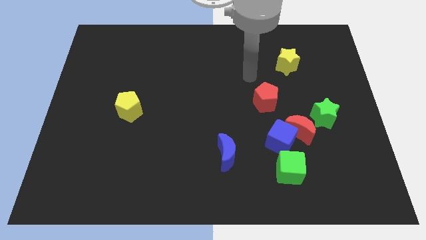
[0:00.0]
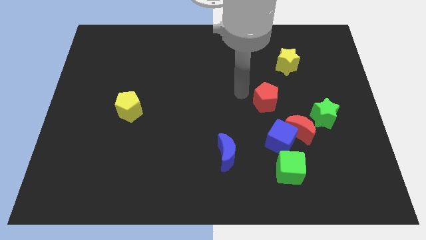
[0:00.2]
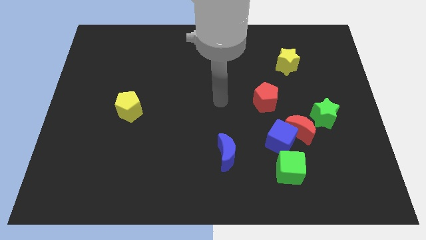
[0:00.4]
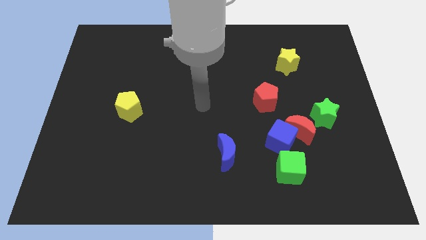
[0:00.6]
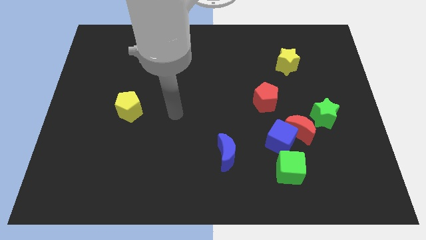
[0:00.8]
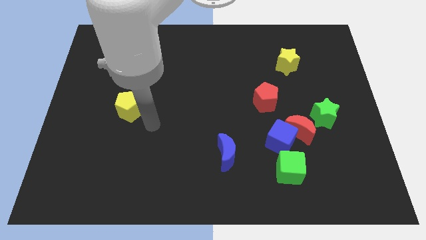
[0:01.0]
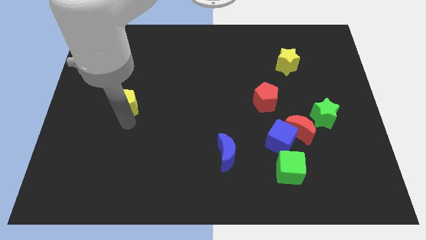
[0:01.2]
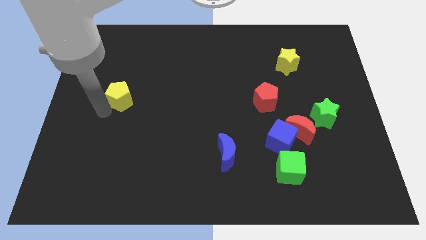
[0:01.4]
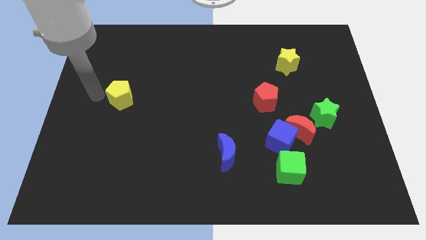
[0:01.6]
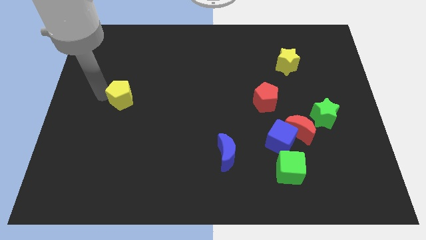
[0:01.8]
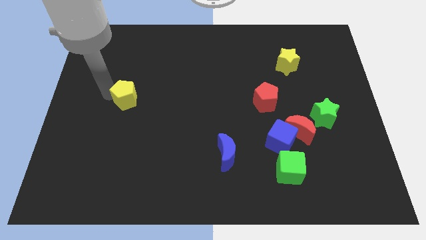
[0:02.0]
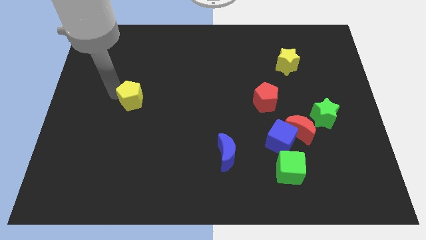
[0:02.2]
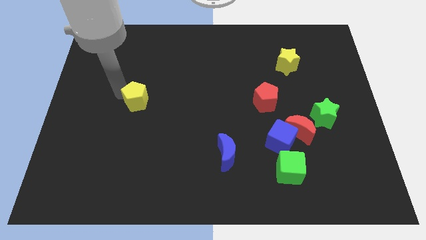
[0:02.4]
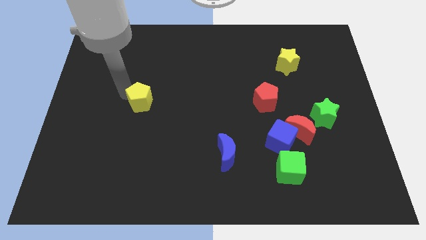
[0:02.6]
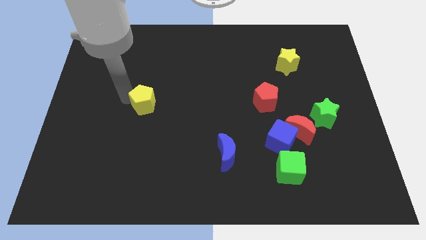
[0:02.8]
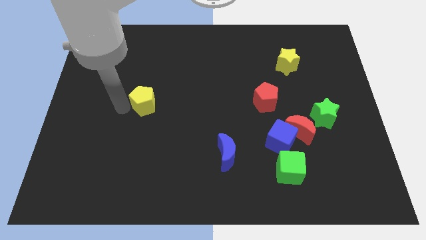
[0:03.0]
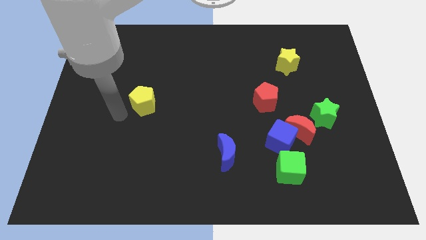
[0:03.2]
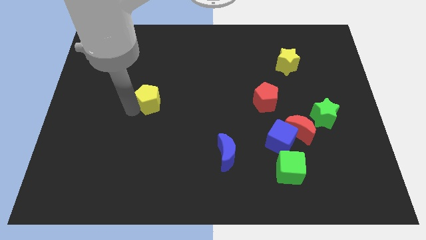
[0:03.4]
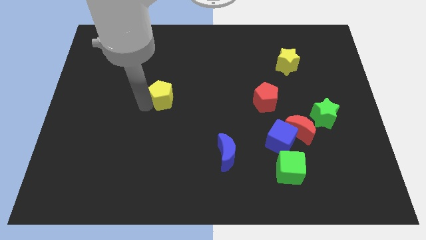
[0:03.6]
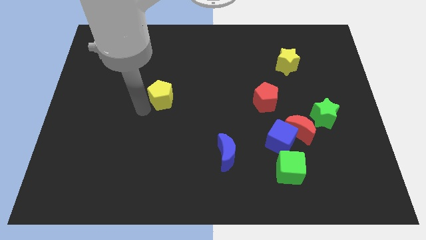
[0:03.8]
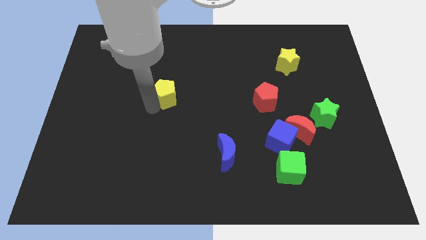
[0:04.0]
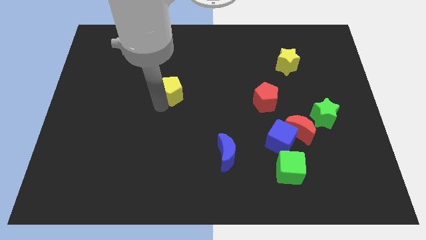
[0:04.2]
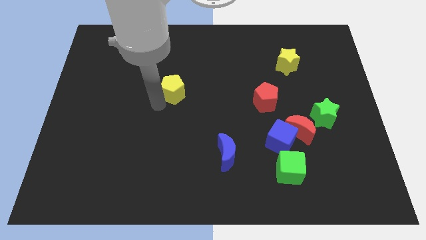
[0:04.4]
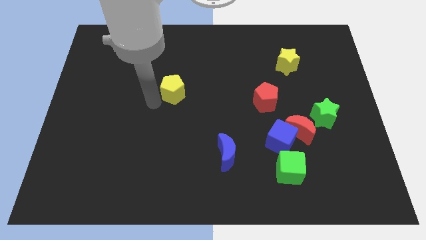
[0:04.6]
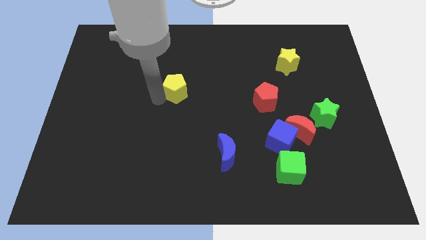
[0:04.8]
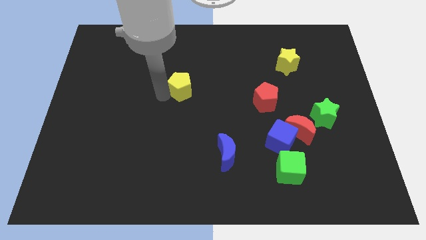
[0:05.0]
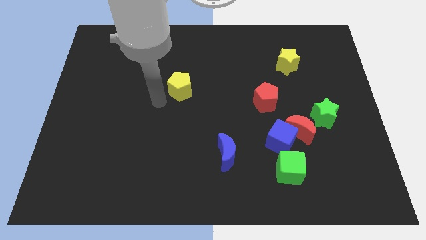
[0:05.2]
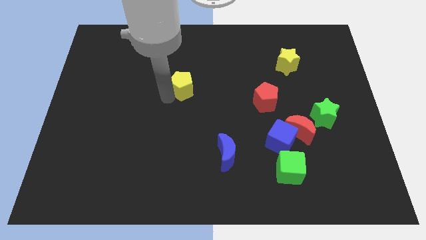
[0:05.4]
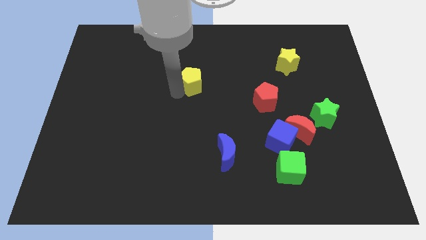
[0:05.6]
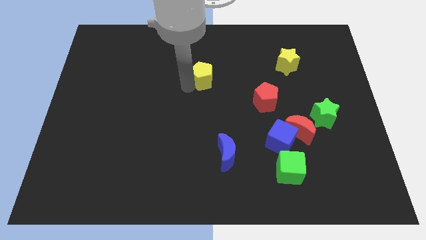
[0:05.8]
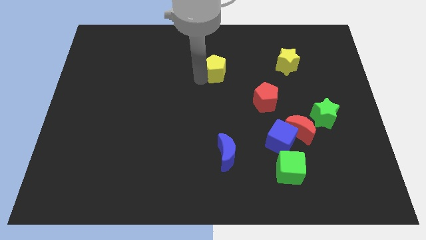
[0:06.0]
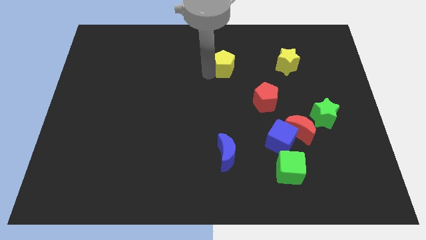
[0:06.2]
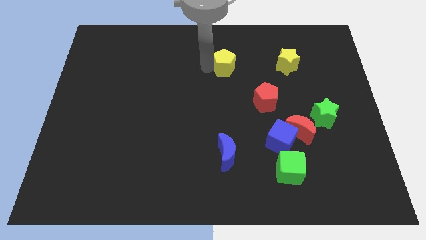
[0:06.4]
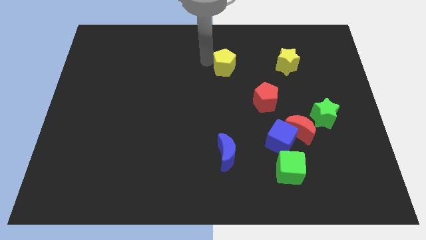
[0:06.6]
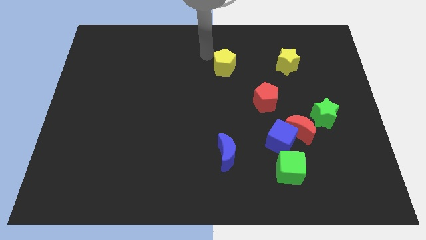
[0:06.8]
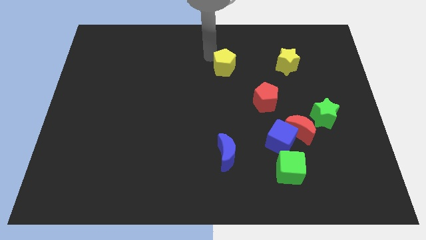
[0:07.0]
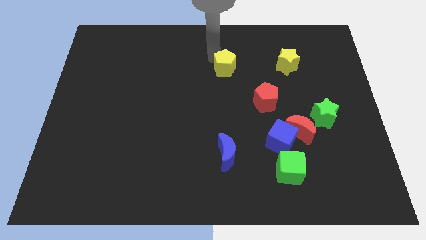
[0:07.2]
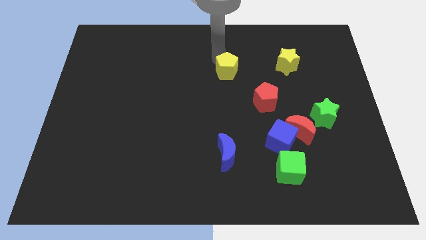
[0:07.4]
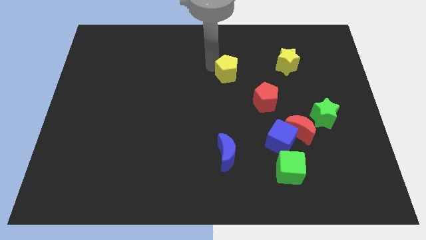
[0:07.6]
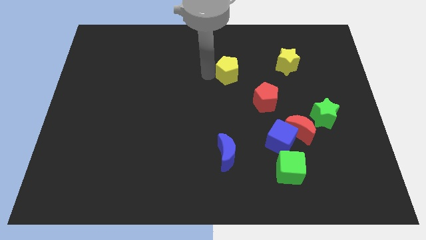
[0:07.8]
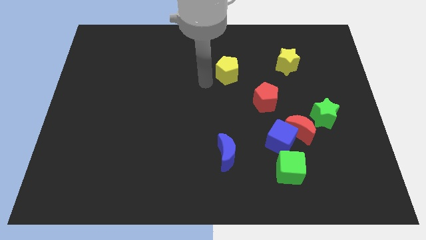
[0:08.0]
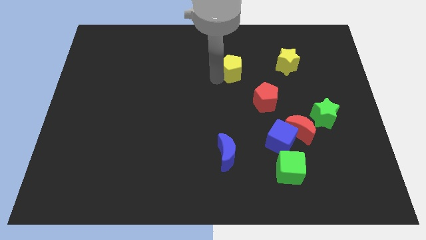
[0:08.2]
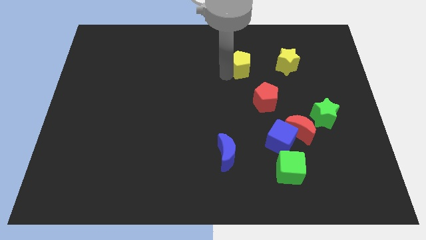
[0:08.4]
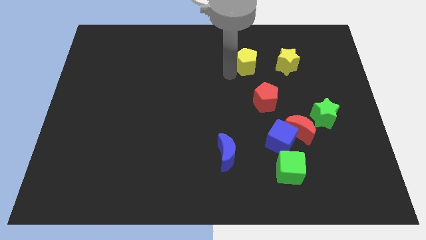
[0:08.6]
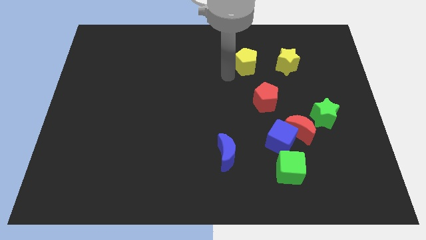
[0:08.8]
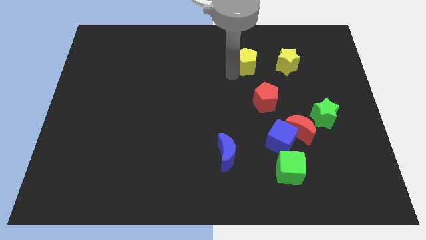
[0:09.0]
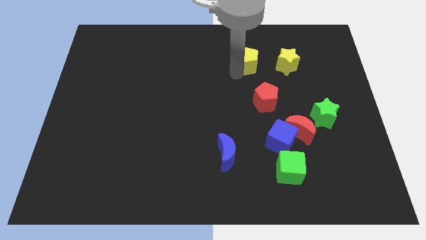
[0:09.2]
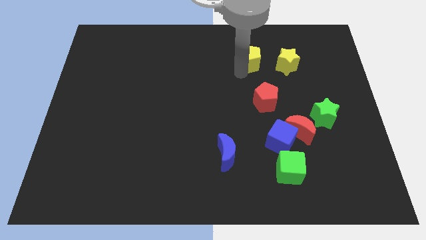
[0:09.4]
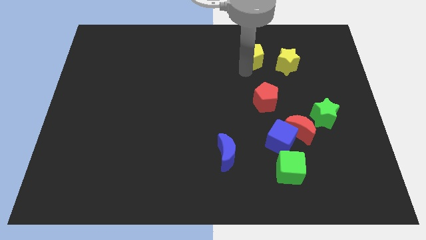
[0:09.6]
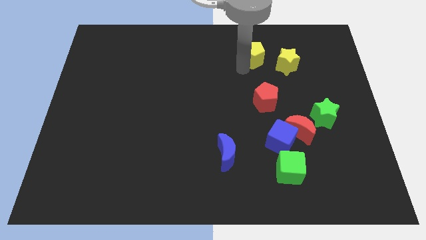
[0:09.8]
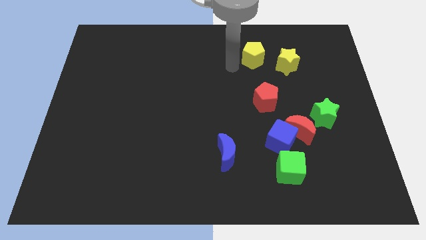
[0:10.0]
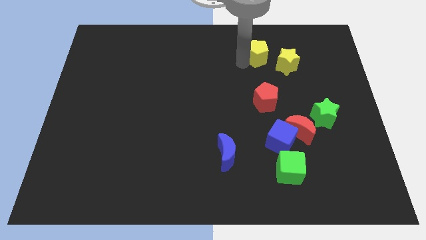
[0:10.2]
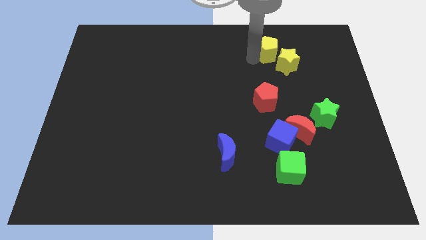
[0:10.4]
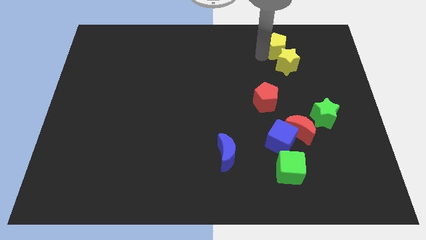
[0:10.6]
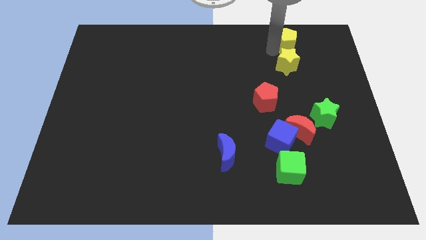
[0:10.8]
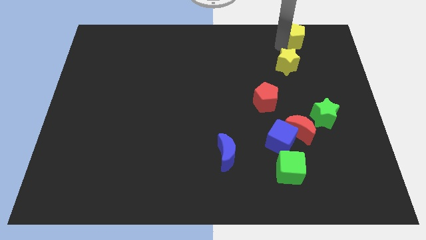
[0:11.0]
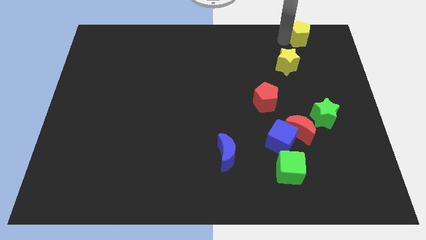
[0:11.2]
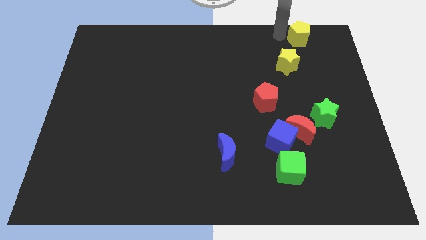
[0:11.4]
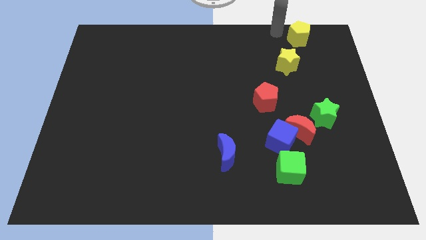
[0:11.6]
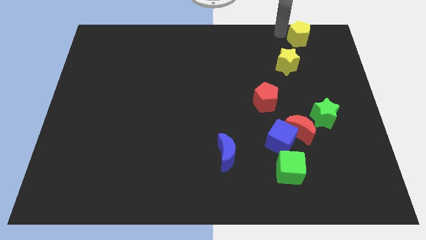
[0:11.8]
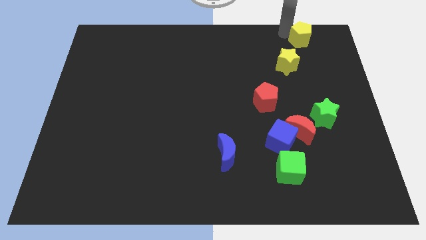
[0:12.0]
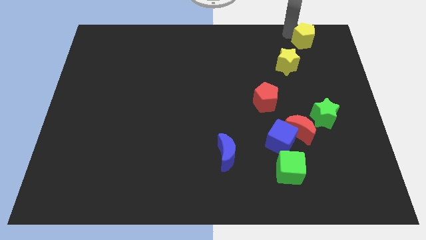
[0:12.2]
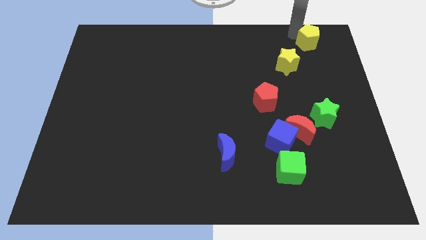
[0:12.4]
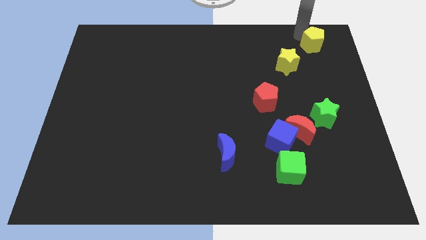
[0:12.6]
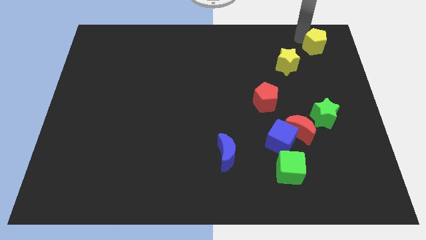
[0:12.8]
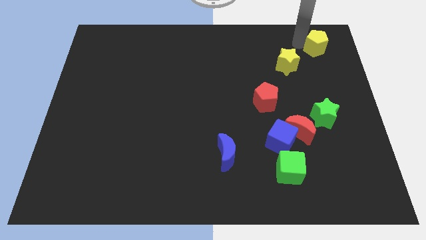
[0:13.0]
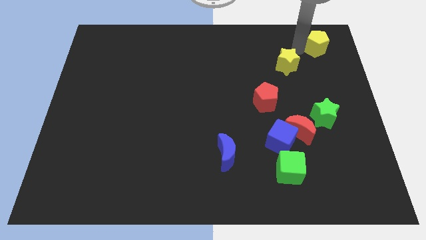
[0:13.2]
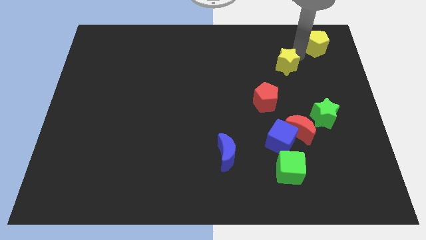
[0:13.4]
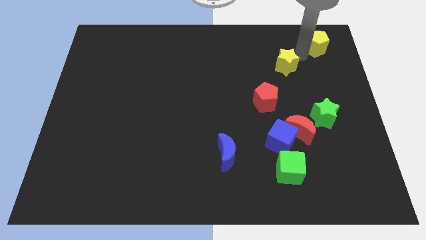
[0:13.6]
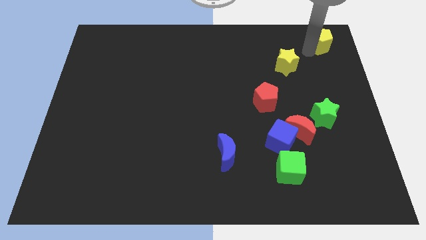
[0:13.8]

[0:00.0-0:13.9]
slide the yellow pentagon to the upper right corner

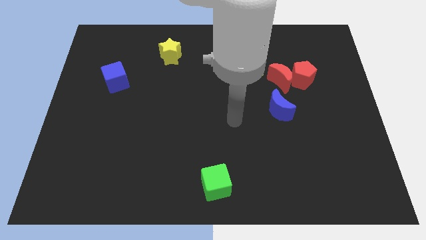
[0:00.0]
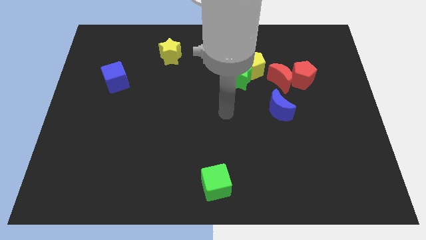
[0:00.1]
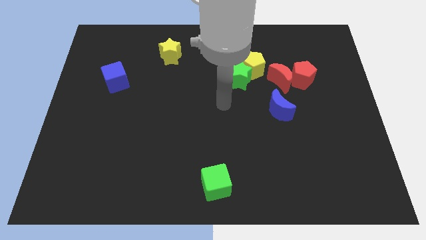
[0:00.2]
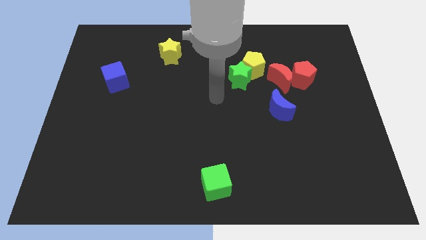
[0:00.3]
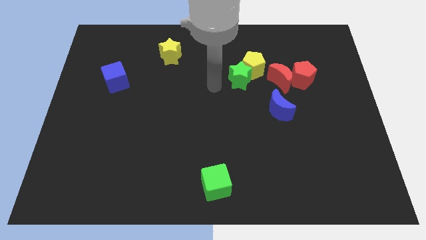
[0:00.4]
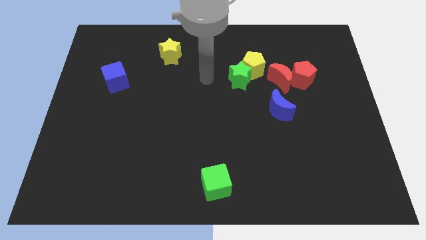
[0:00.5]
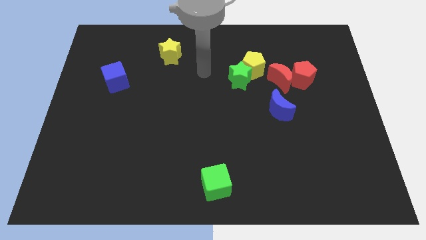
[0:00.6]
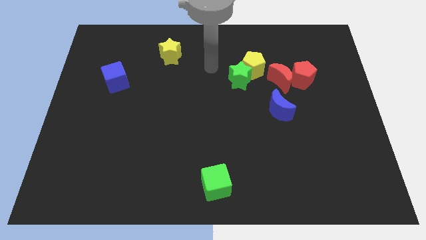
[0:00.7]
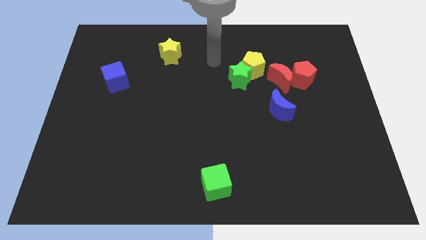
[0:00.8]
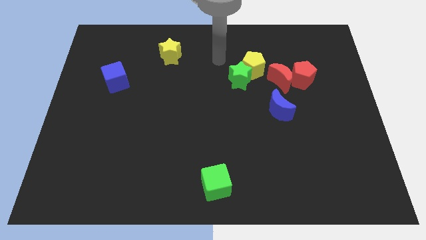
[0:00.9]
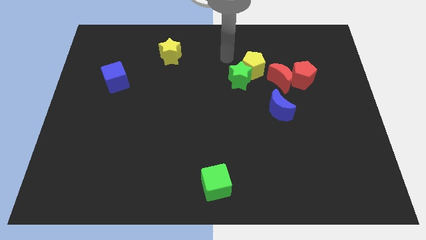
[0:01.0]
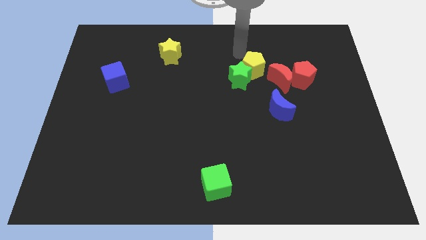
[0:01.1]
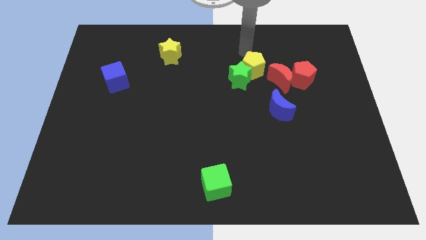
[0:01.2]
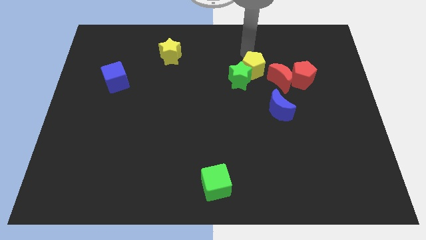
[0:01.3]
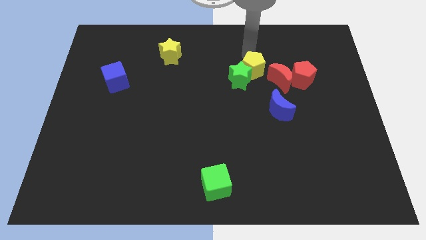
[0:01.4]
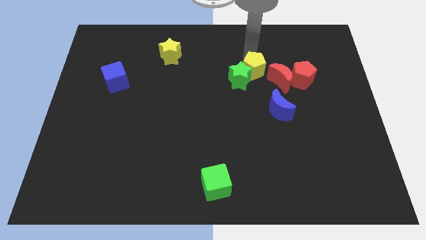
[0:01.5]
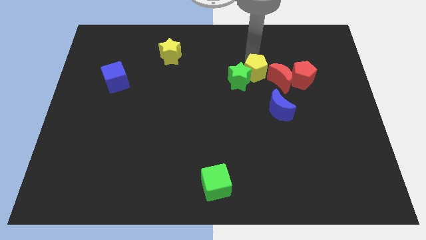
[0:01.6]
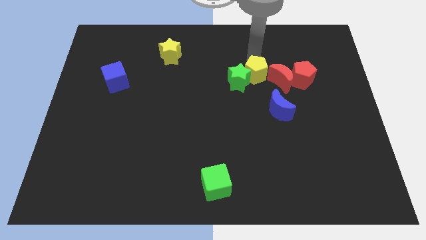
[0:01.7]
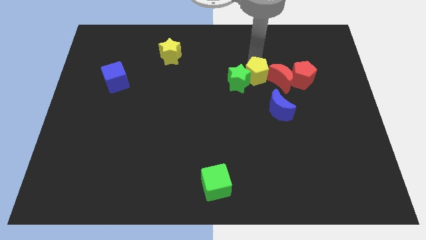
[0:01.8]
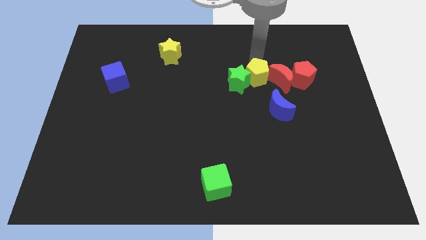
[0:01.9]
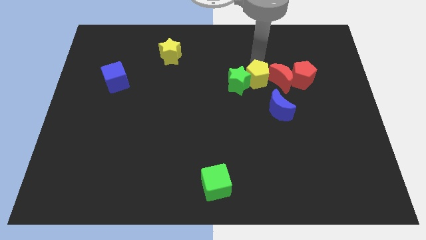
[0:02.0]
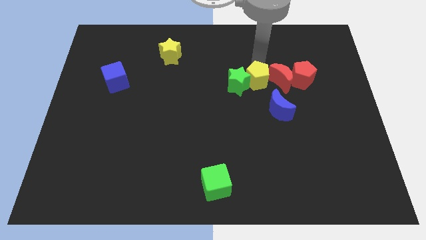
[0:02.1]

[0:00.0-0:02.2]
put the yellow pentagon to the middle of the board
